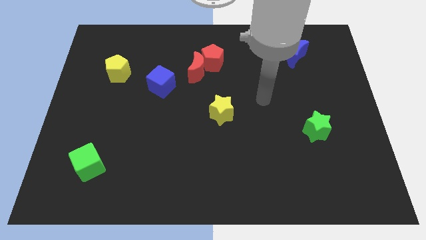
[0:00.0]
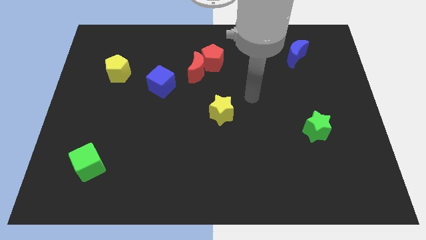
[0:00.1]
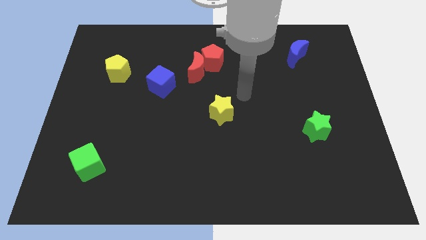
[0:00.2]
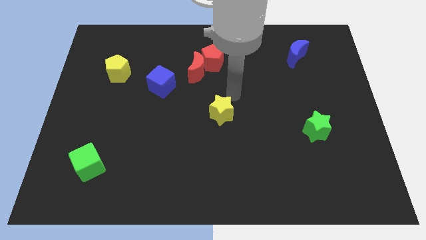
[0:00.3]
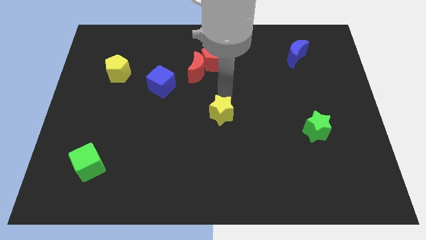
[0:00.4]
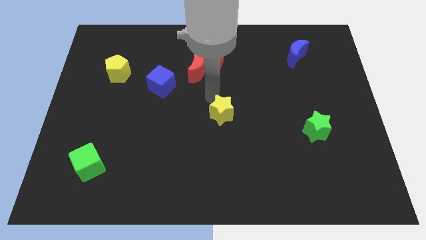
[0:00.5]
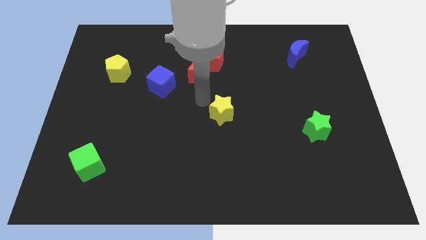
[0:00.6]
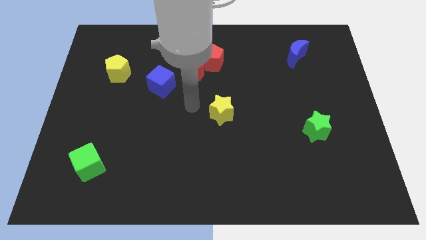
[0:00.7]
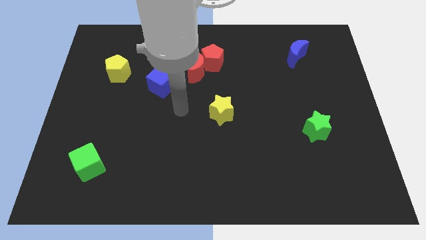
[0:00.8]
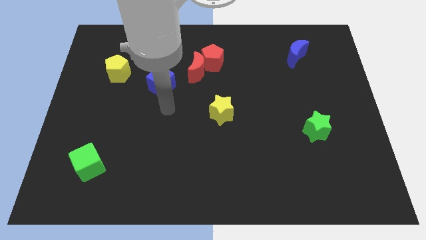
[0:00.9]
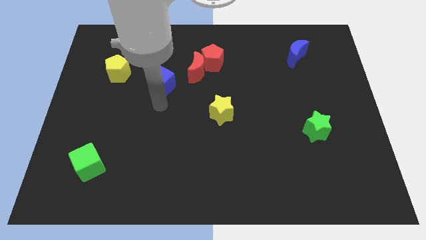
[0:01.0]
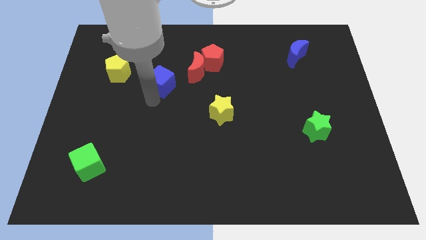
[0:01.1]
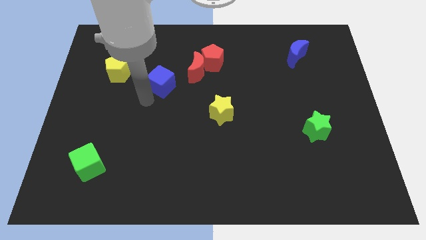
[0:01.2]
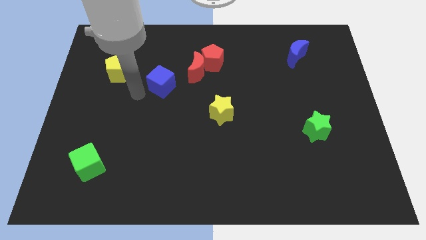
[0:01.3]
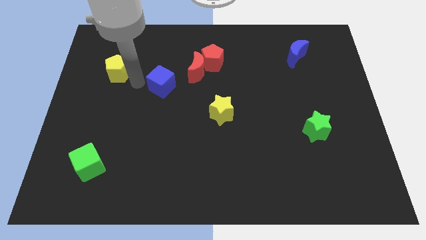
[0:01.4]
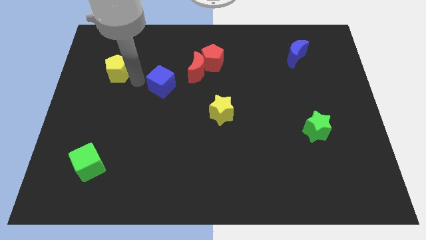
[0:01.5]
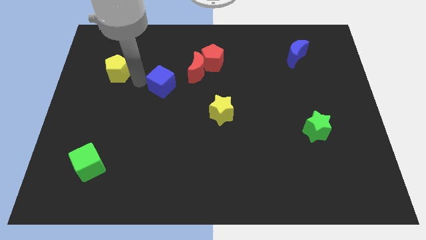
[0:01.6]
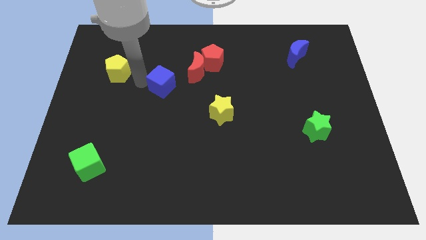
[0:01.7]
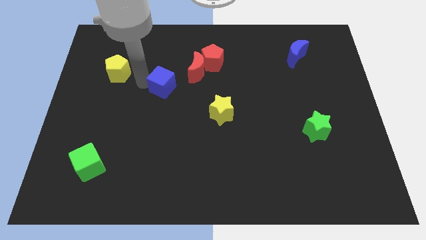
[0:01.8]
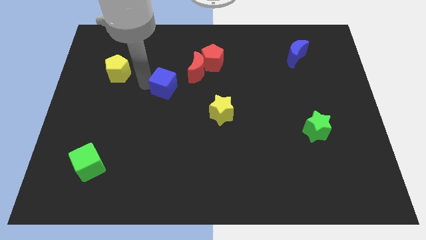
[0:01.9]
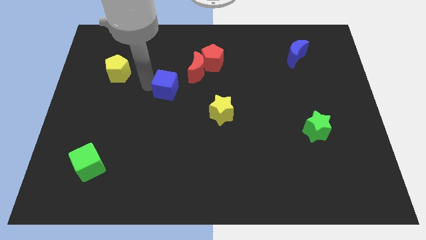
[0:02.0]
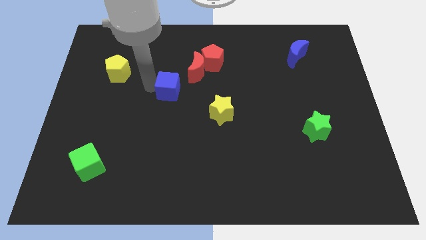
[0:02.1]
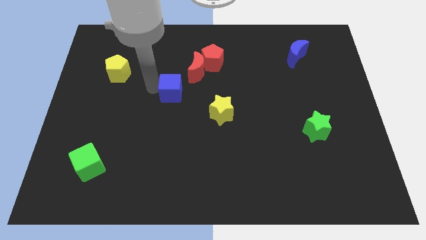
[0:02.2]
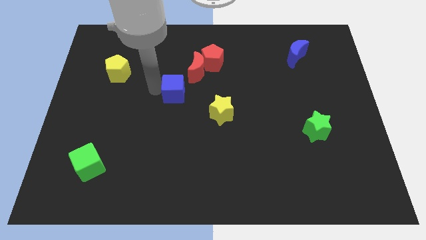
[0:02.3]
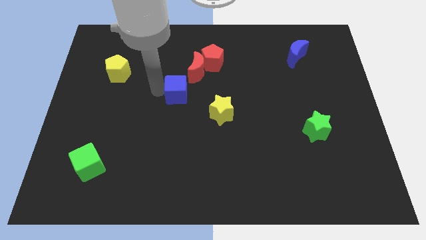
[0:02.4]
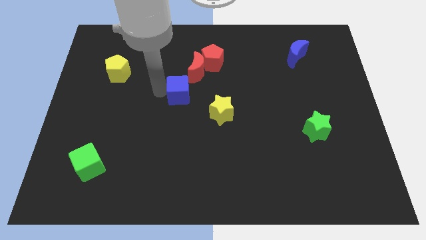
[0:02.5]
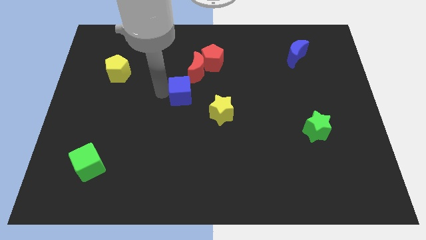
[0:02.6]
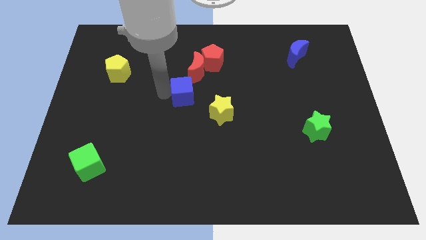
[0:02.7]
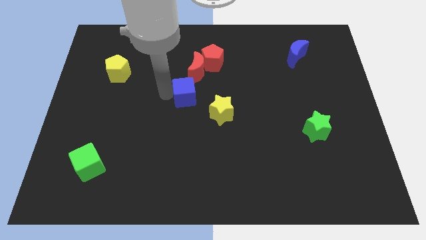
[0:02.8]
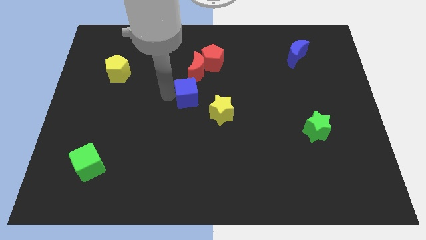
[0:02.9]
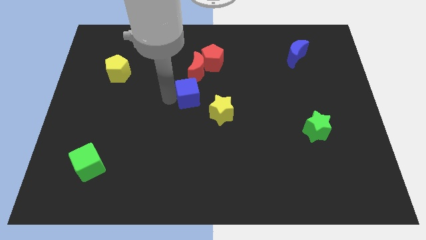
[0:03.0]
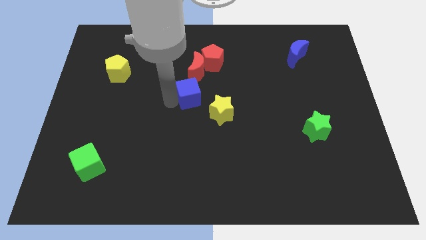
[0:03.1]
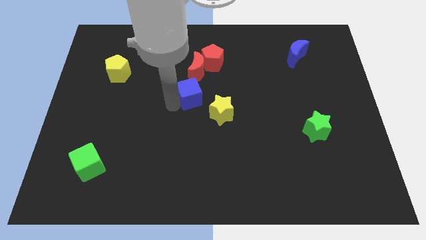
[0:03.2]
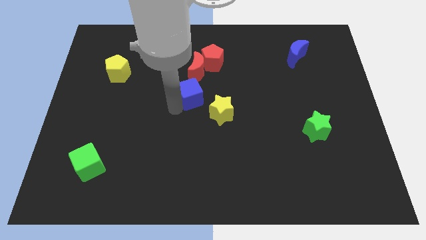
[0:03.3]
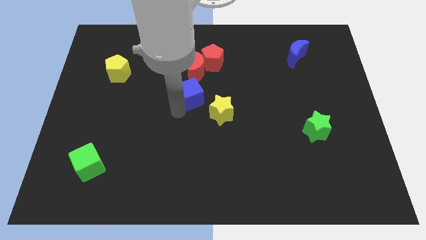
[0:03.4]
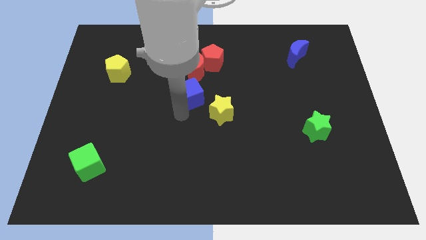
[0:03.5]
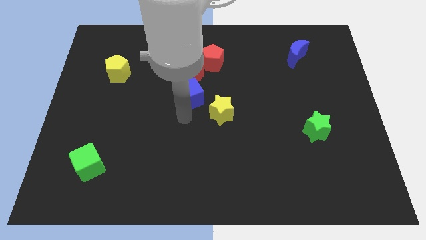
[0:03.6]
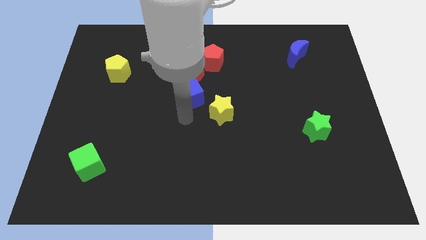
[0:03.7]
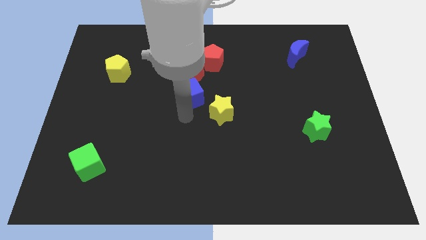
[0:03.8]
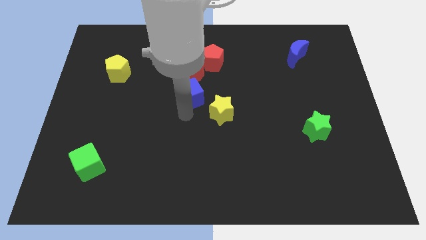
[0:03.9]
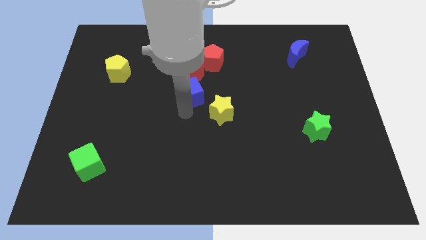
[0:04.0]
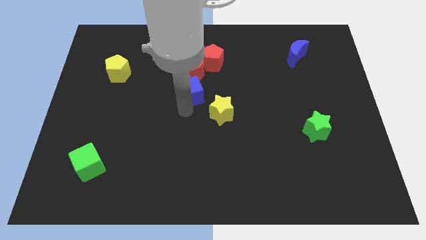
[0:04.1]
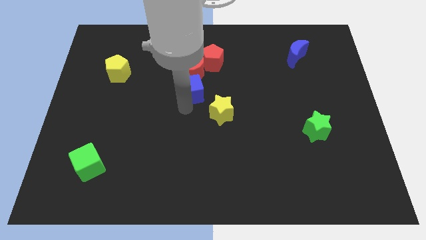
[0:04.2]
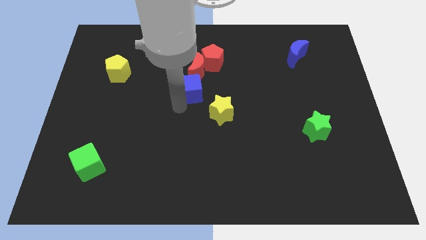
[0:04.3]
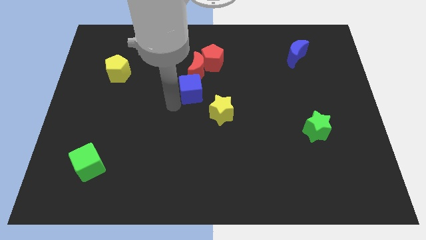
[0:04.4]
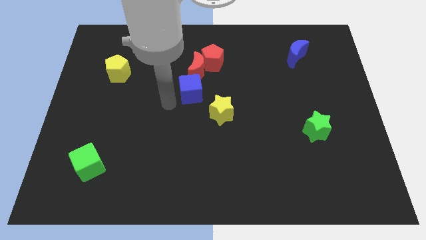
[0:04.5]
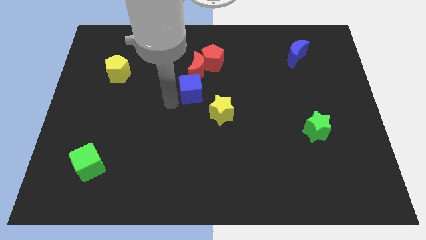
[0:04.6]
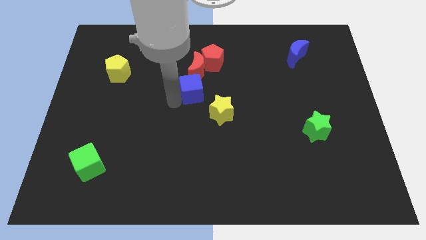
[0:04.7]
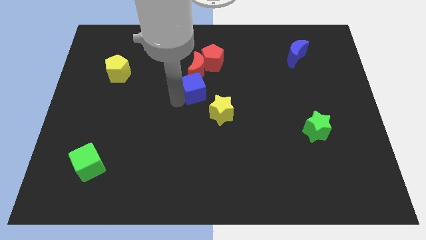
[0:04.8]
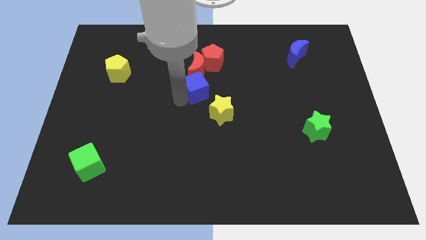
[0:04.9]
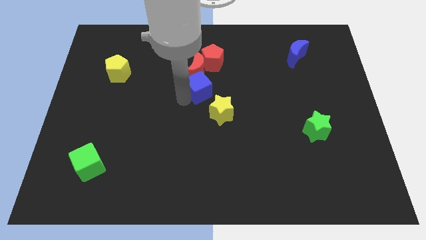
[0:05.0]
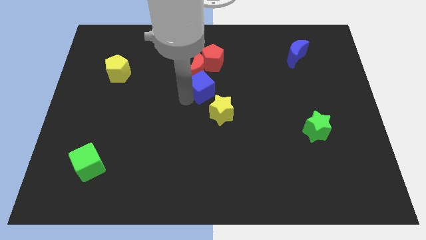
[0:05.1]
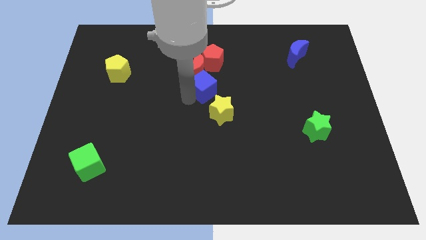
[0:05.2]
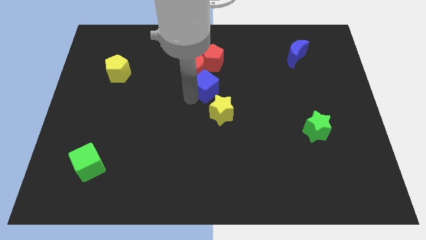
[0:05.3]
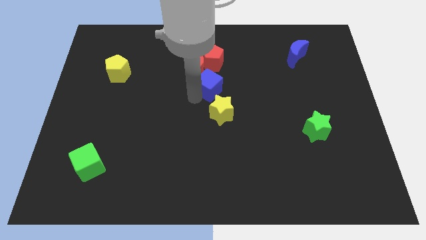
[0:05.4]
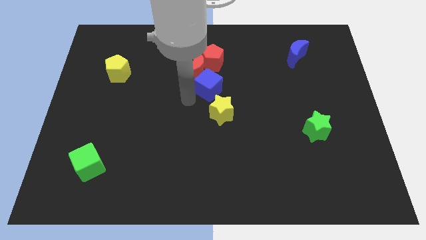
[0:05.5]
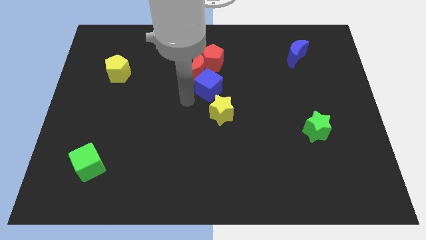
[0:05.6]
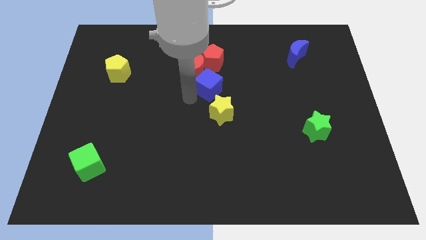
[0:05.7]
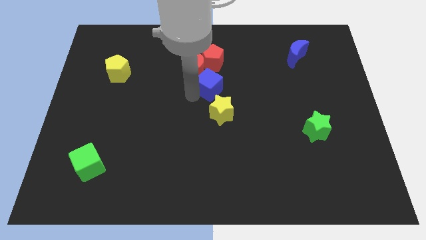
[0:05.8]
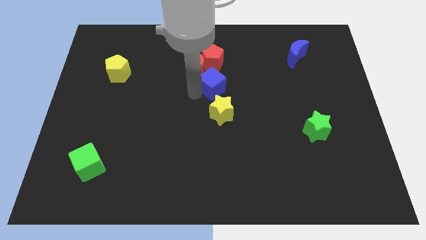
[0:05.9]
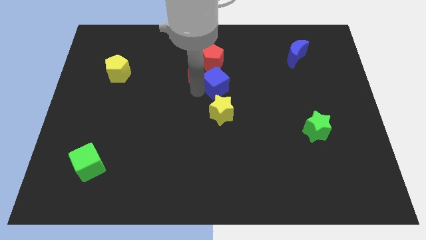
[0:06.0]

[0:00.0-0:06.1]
put the blue cube to the right of the red moon

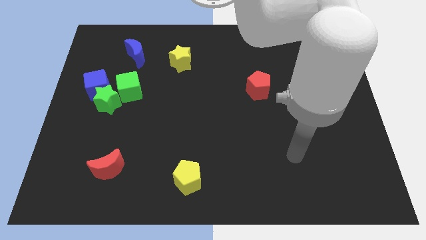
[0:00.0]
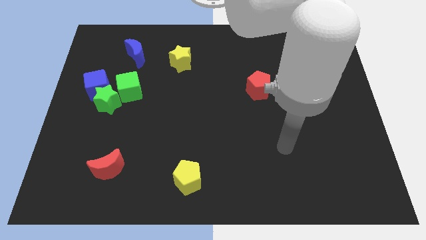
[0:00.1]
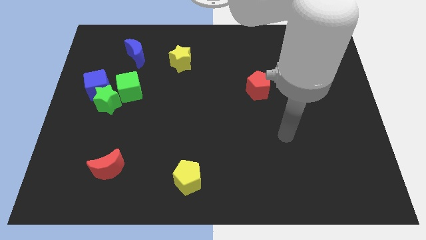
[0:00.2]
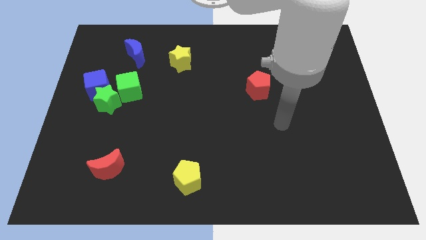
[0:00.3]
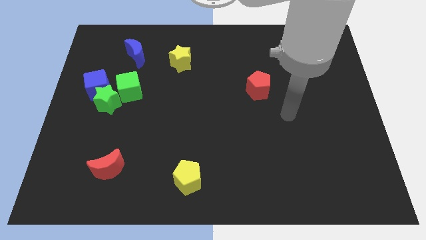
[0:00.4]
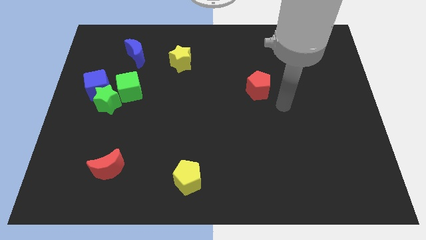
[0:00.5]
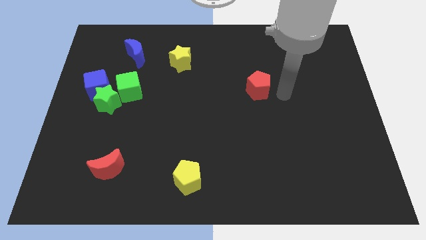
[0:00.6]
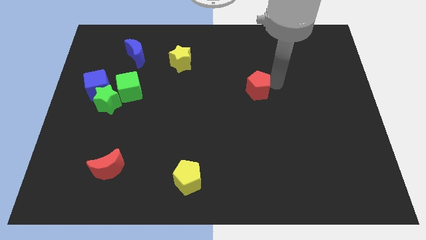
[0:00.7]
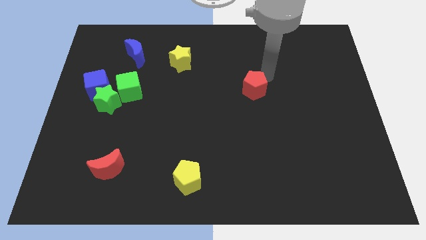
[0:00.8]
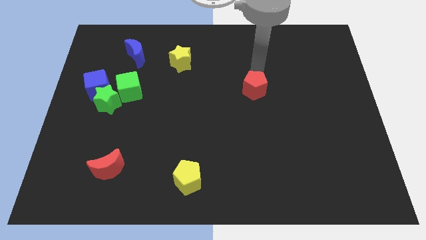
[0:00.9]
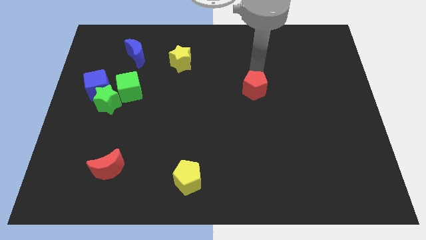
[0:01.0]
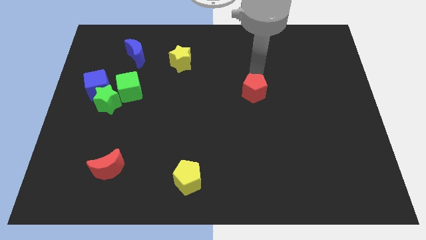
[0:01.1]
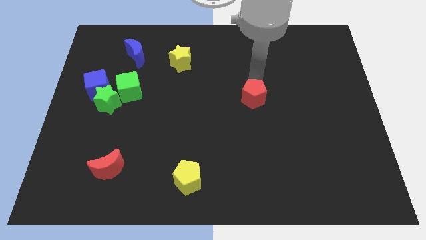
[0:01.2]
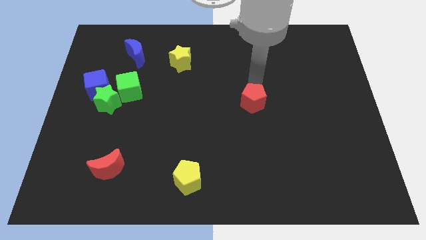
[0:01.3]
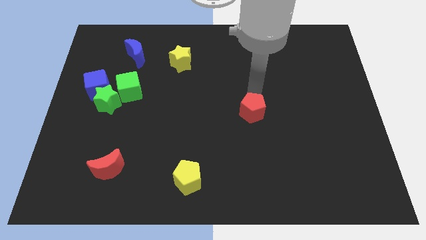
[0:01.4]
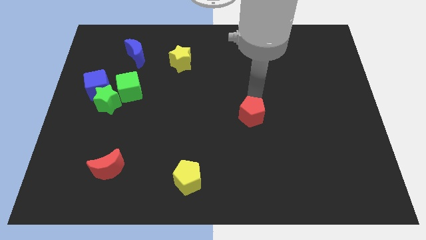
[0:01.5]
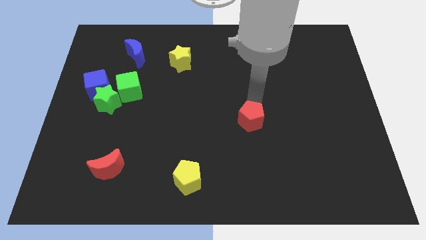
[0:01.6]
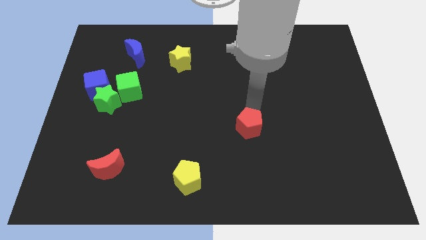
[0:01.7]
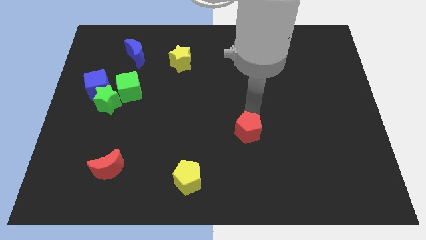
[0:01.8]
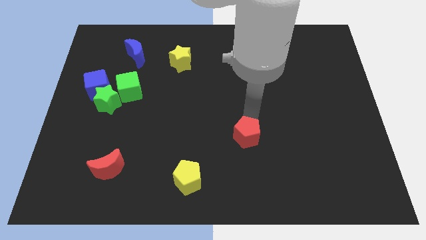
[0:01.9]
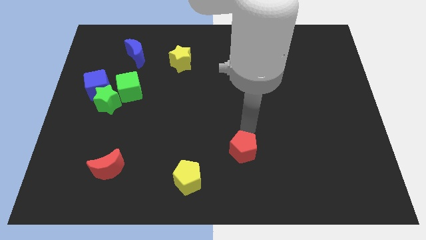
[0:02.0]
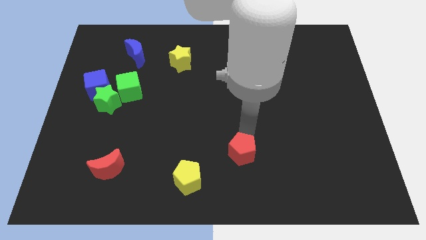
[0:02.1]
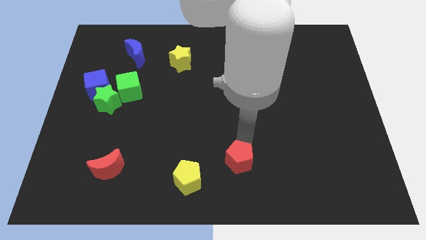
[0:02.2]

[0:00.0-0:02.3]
move the red pentagon to the right side of the yellow pentagon

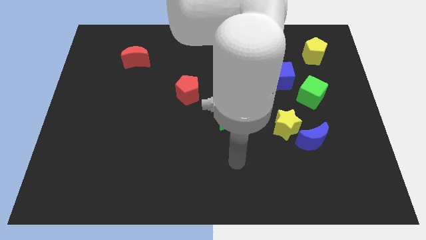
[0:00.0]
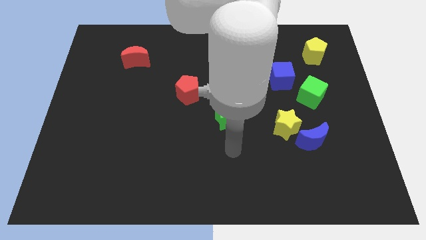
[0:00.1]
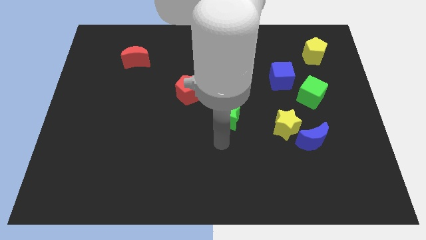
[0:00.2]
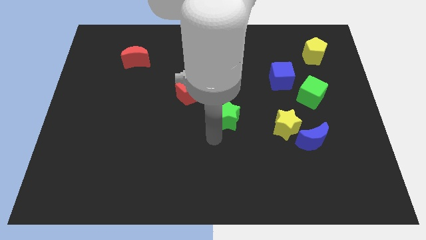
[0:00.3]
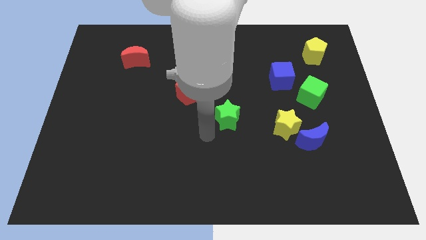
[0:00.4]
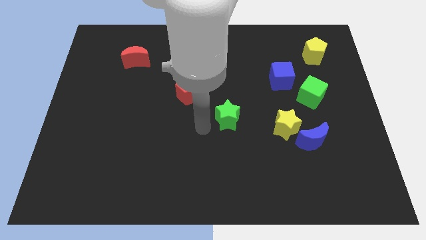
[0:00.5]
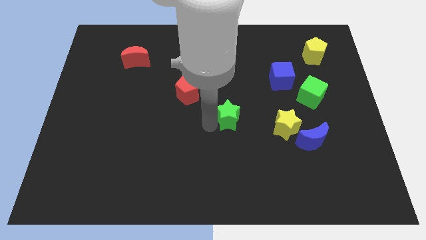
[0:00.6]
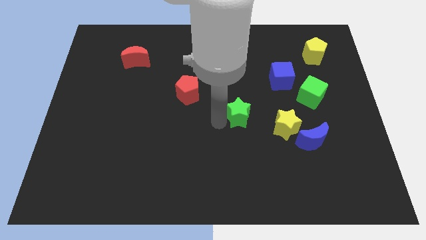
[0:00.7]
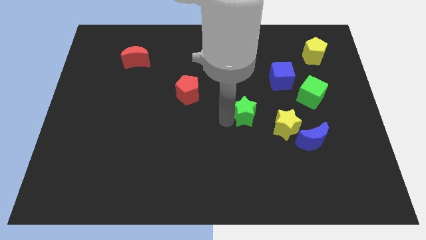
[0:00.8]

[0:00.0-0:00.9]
move the green star to the top left of the yellow star
